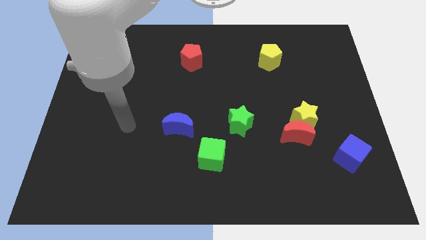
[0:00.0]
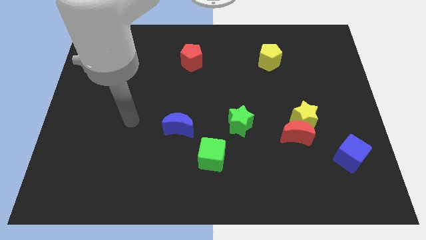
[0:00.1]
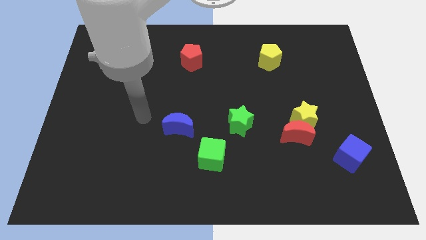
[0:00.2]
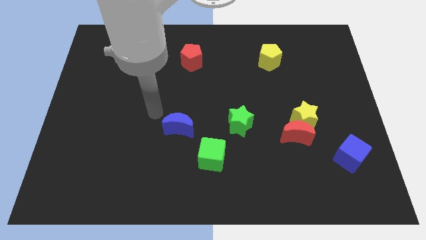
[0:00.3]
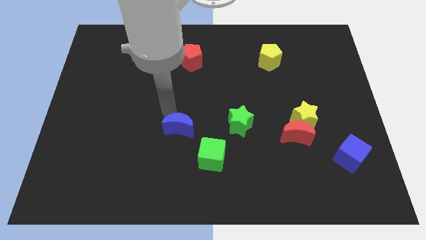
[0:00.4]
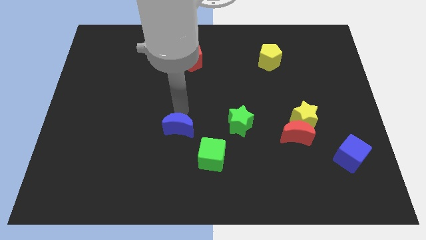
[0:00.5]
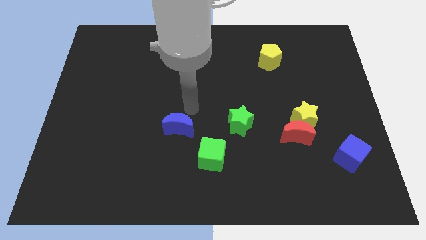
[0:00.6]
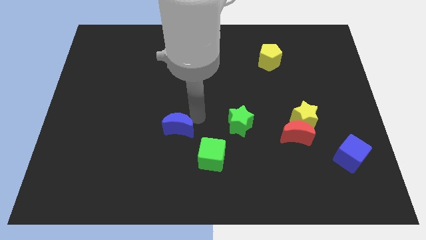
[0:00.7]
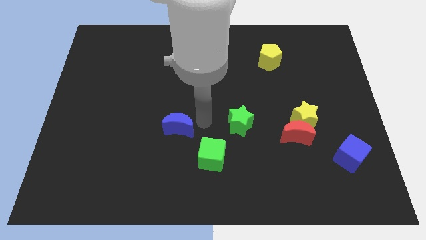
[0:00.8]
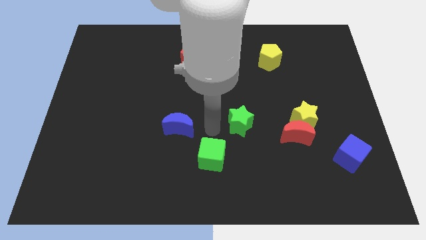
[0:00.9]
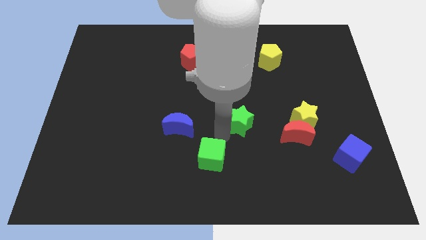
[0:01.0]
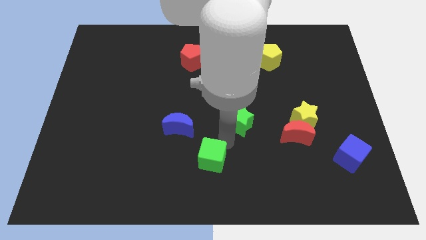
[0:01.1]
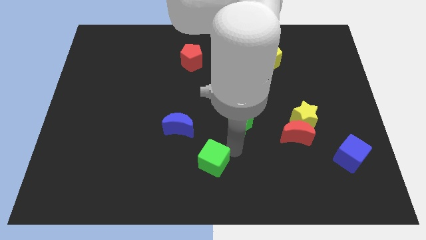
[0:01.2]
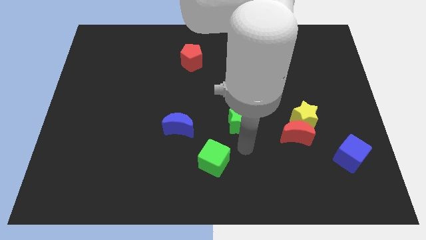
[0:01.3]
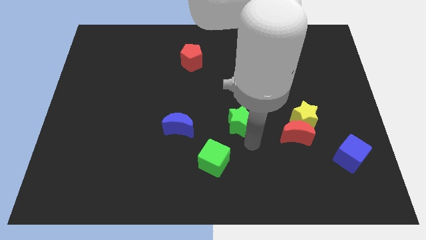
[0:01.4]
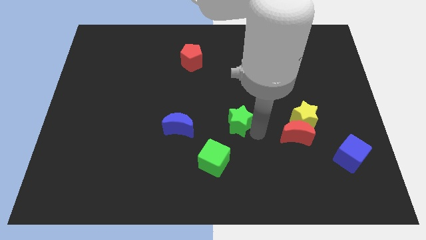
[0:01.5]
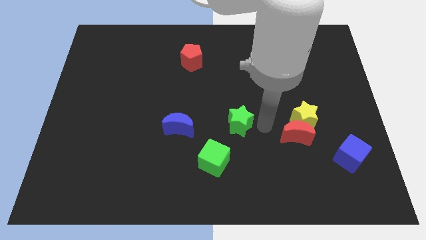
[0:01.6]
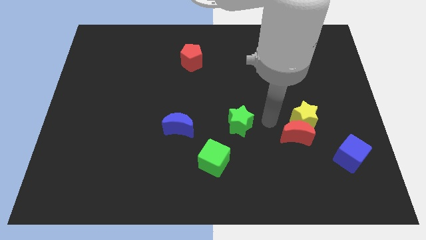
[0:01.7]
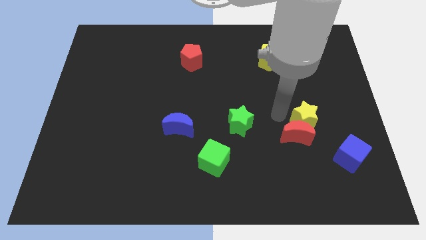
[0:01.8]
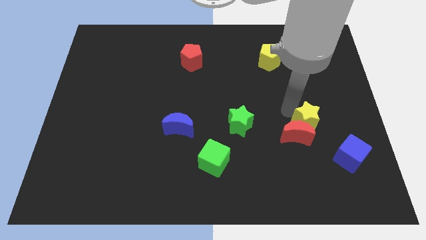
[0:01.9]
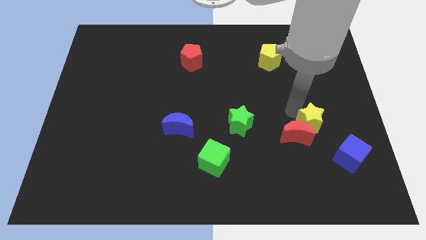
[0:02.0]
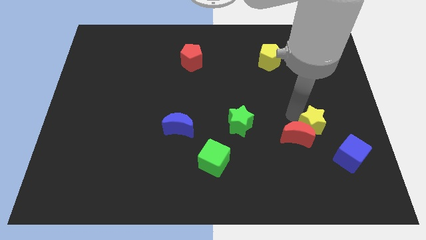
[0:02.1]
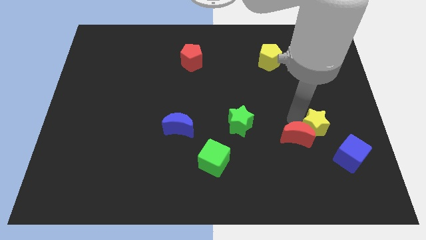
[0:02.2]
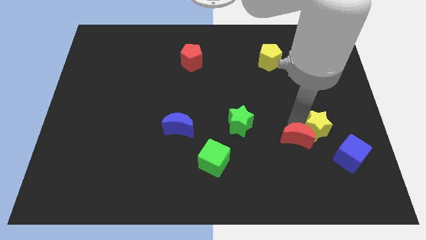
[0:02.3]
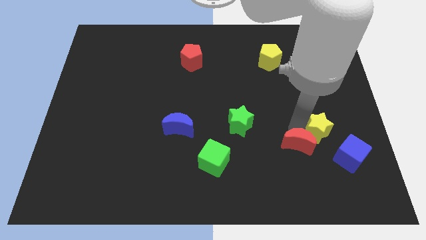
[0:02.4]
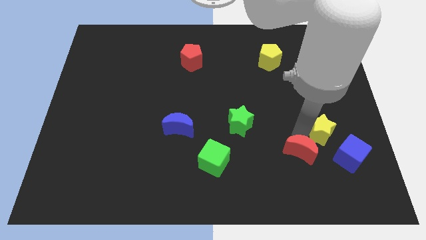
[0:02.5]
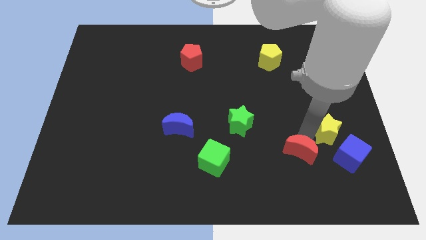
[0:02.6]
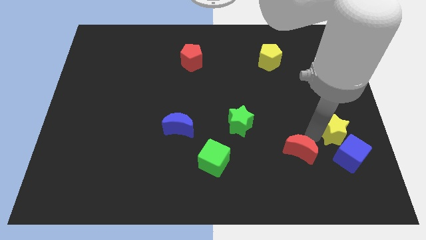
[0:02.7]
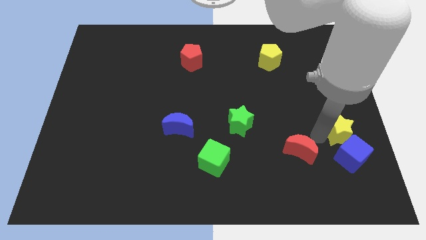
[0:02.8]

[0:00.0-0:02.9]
separate the red moon from the yellow star

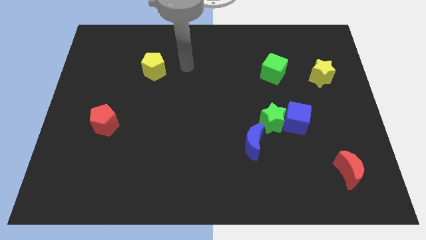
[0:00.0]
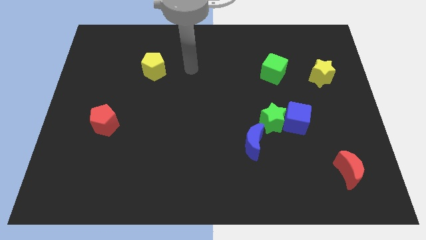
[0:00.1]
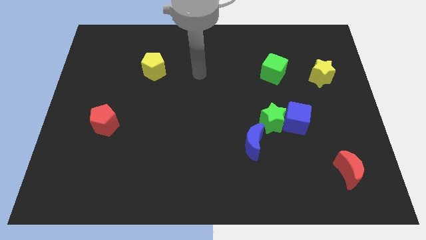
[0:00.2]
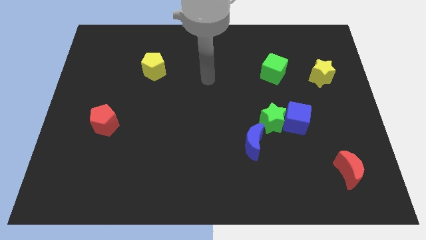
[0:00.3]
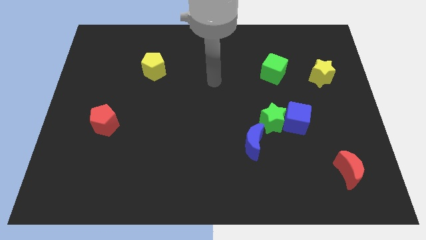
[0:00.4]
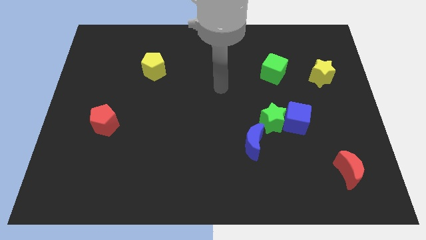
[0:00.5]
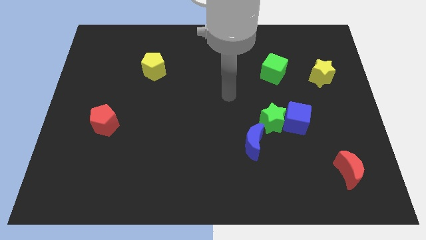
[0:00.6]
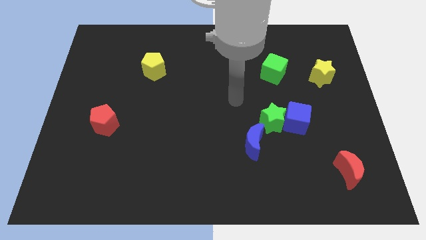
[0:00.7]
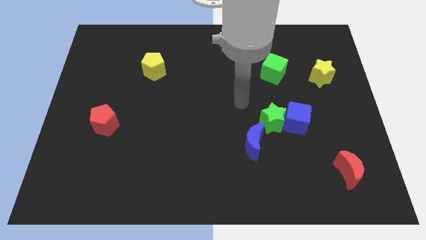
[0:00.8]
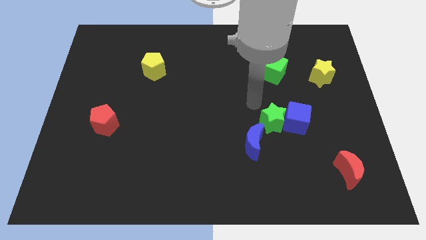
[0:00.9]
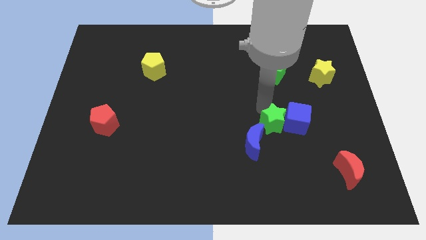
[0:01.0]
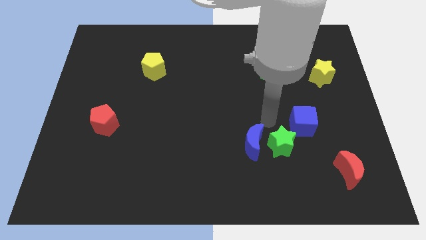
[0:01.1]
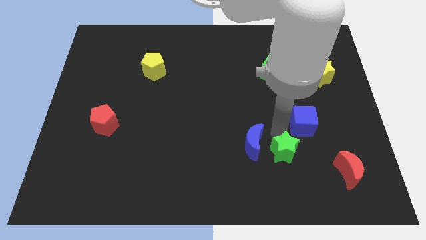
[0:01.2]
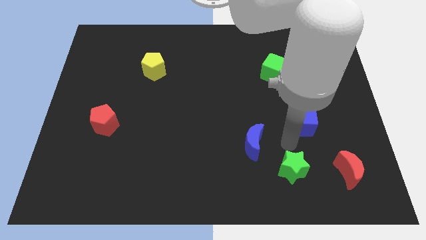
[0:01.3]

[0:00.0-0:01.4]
pull the blue cube apart from the green star

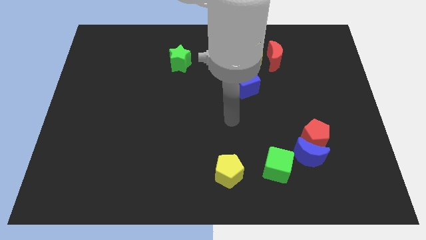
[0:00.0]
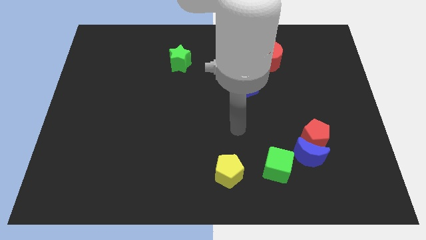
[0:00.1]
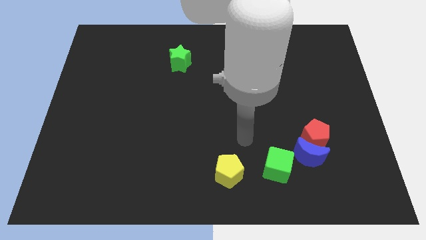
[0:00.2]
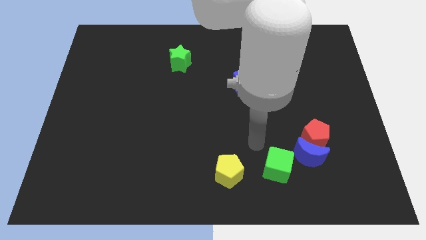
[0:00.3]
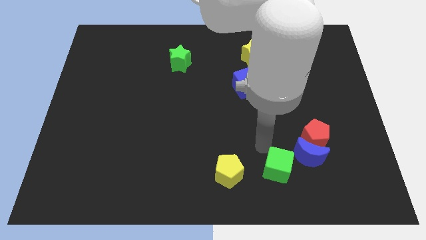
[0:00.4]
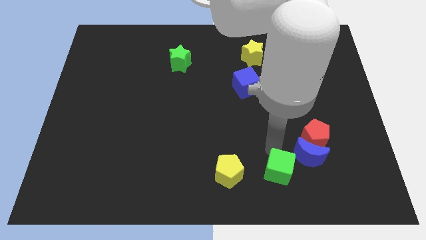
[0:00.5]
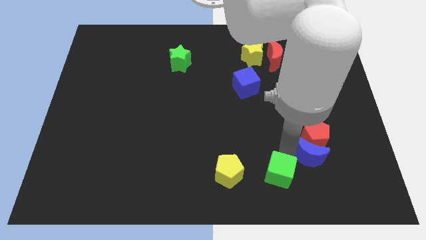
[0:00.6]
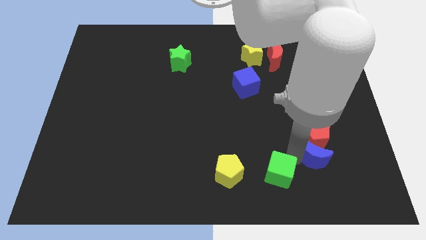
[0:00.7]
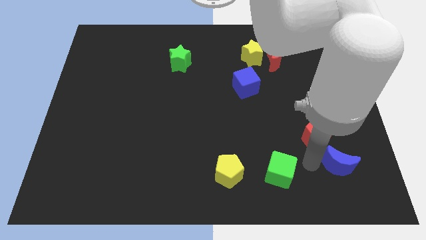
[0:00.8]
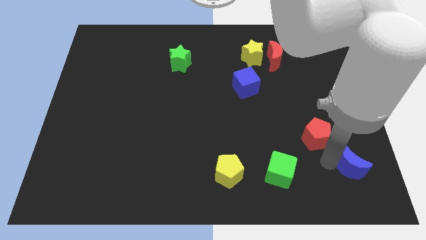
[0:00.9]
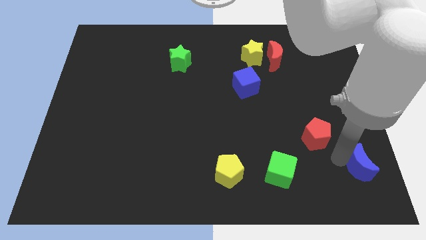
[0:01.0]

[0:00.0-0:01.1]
separate the red pentagon from the blue moon

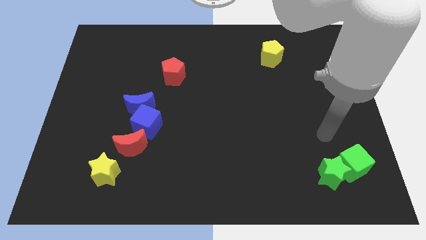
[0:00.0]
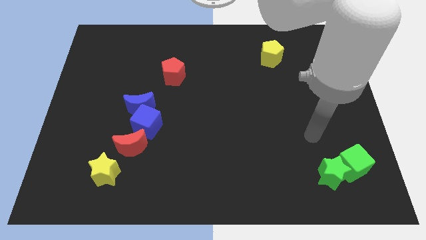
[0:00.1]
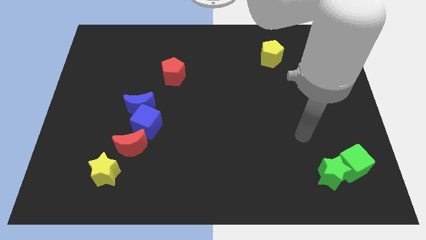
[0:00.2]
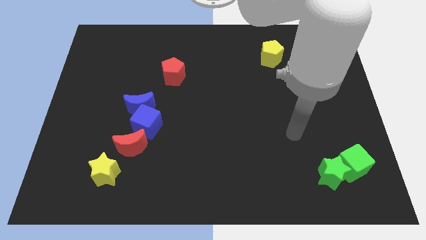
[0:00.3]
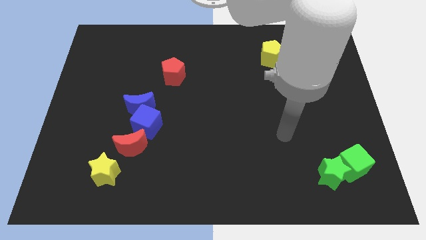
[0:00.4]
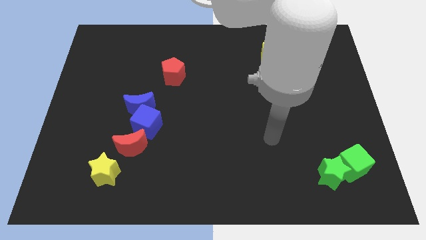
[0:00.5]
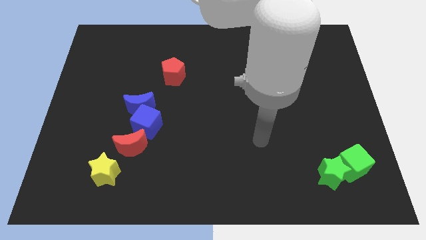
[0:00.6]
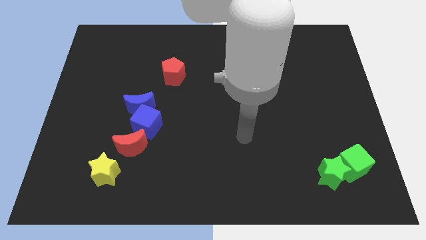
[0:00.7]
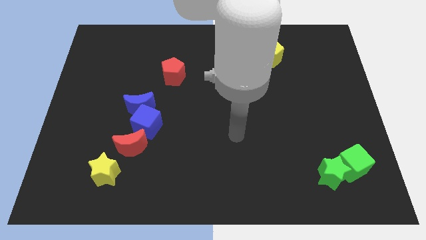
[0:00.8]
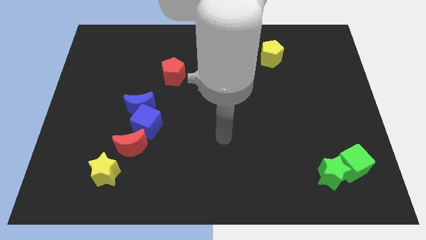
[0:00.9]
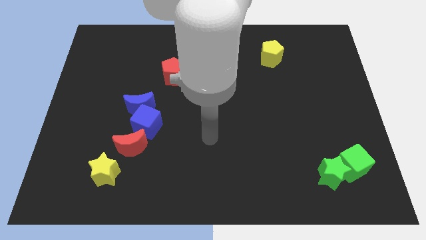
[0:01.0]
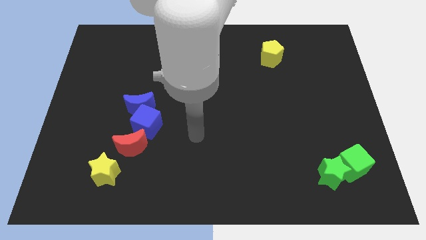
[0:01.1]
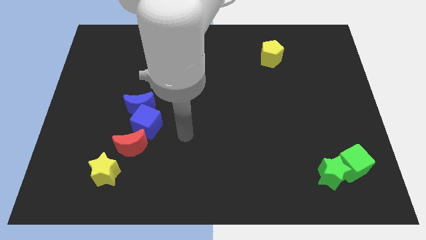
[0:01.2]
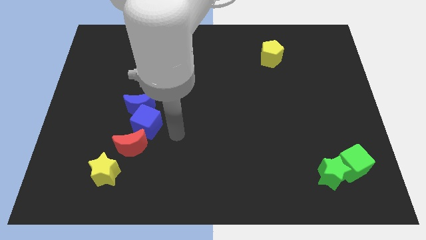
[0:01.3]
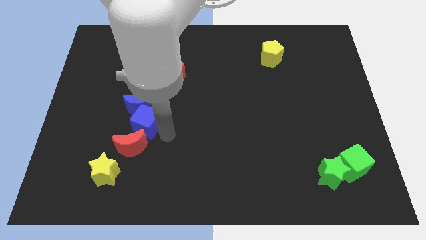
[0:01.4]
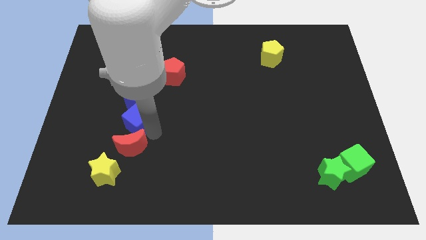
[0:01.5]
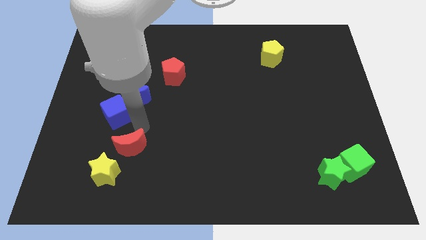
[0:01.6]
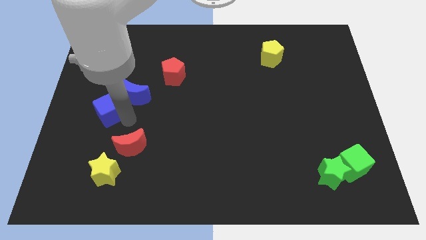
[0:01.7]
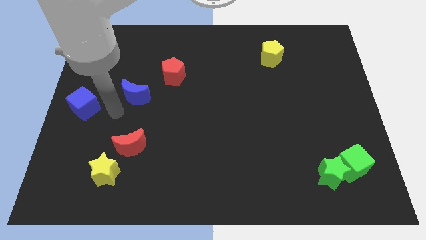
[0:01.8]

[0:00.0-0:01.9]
move the blue moon away from the blue cube

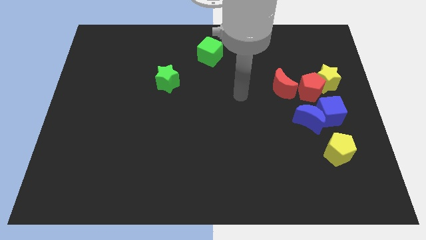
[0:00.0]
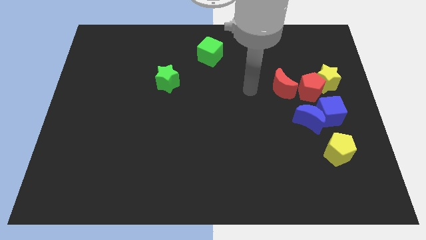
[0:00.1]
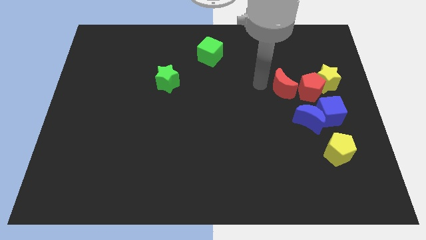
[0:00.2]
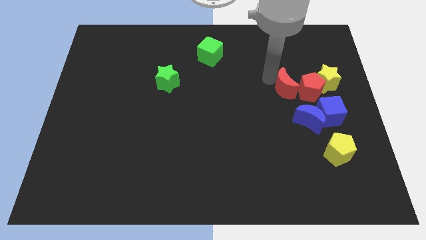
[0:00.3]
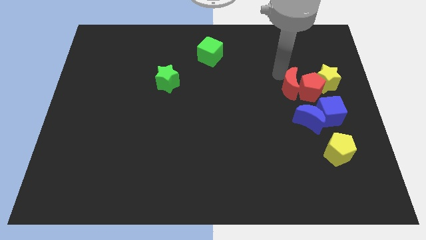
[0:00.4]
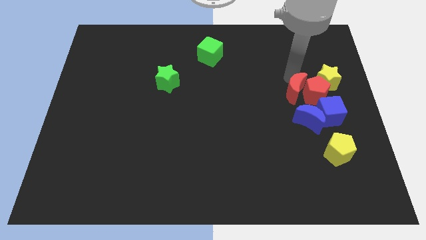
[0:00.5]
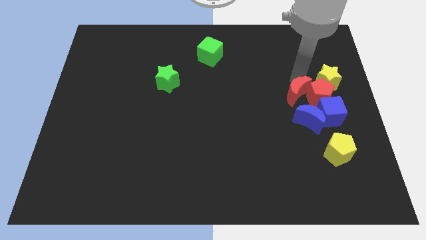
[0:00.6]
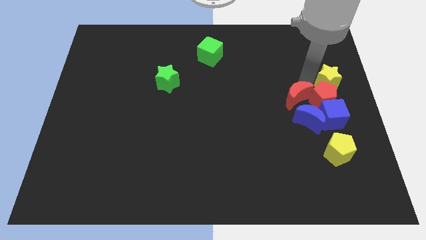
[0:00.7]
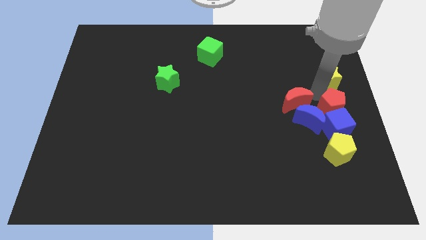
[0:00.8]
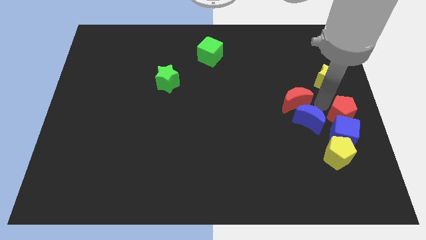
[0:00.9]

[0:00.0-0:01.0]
move the red moon away from the red pentagon

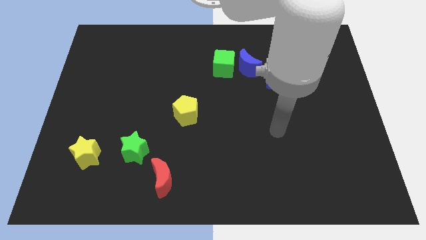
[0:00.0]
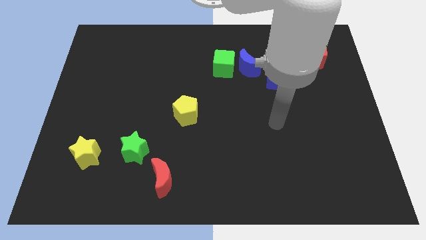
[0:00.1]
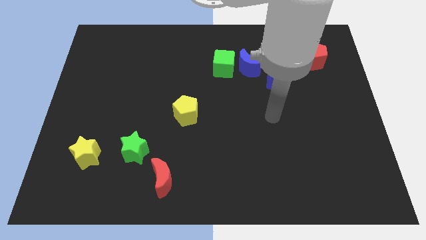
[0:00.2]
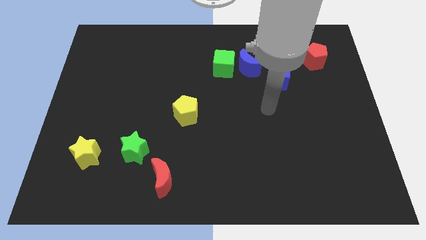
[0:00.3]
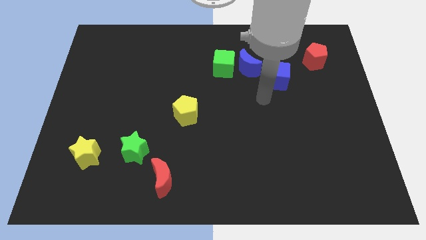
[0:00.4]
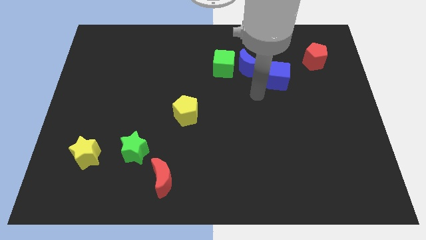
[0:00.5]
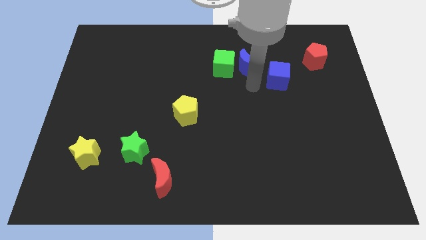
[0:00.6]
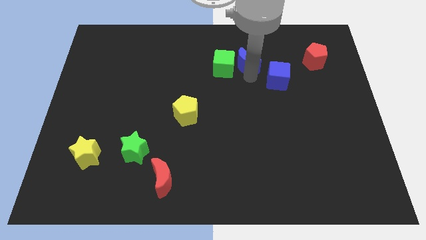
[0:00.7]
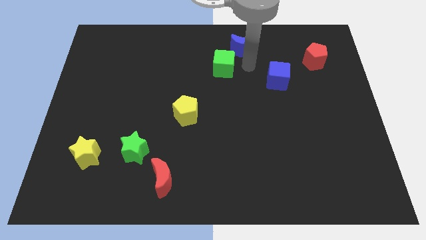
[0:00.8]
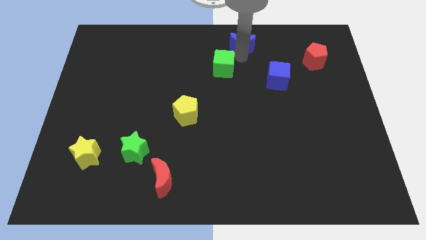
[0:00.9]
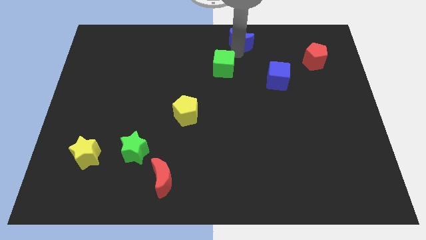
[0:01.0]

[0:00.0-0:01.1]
separate the green cube from the blue moon
